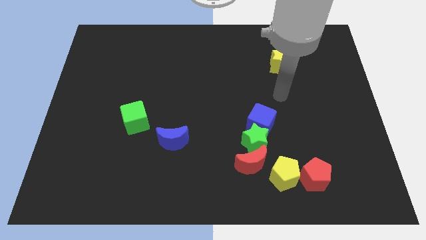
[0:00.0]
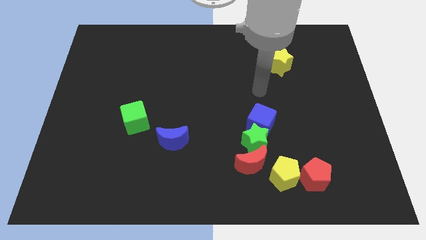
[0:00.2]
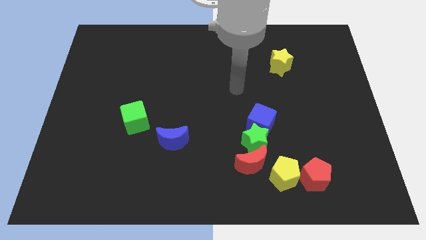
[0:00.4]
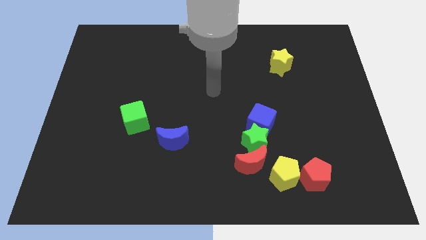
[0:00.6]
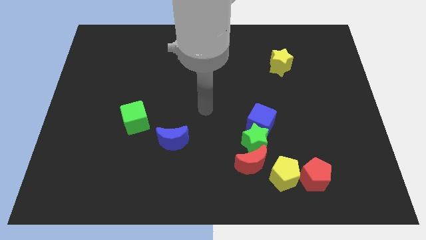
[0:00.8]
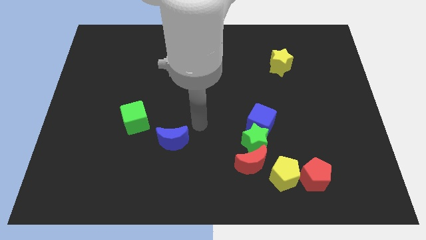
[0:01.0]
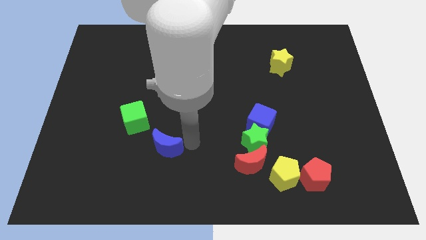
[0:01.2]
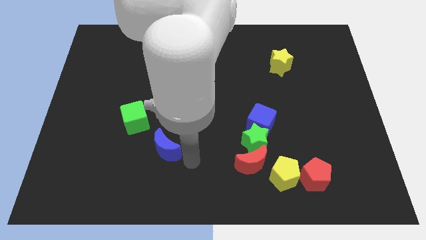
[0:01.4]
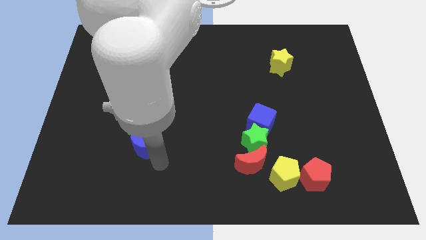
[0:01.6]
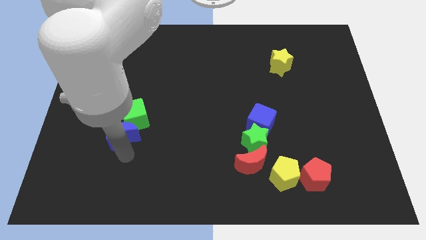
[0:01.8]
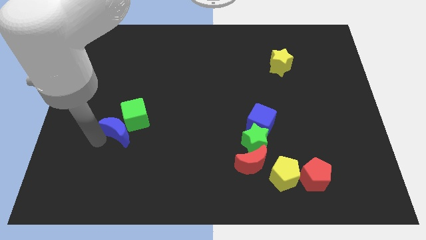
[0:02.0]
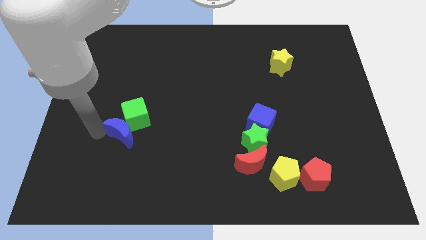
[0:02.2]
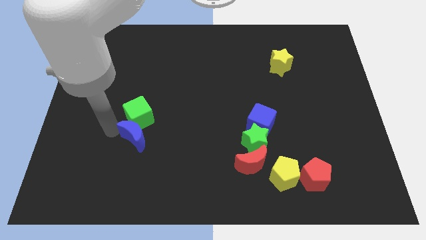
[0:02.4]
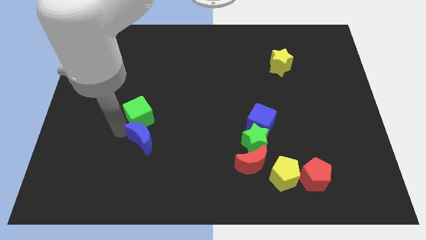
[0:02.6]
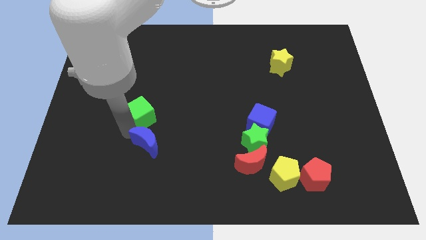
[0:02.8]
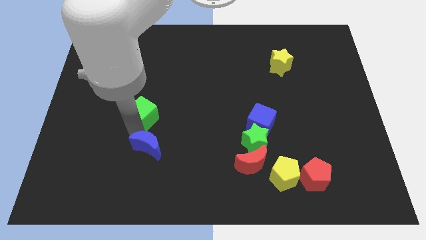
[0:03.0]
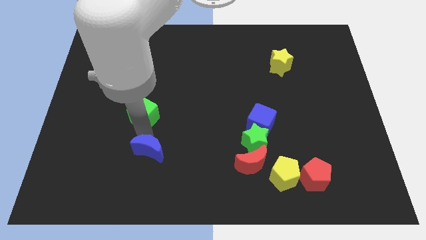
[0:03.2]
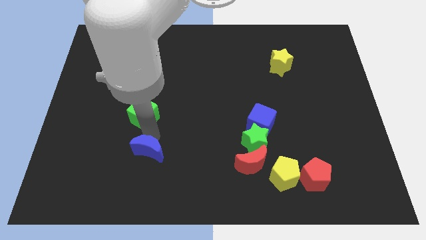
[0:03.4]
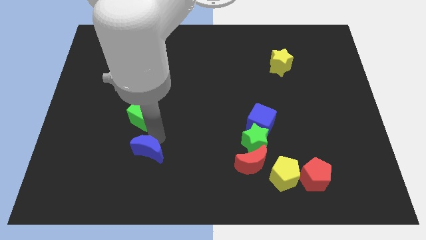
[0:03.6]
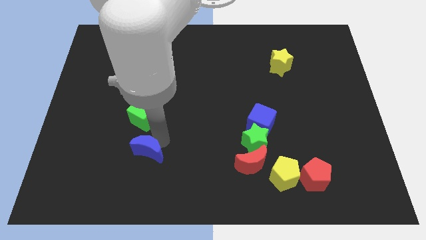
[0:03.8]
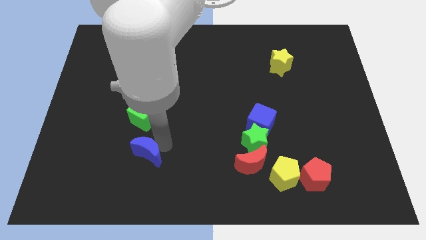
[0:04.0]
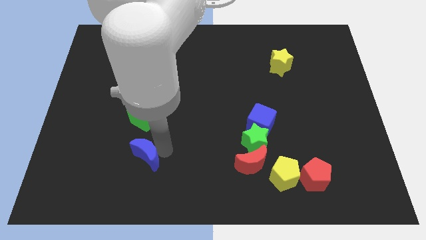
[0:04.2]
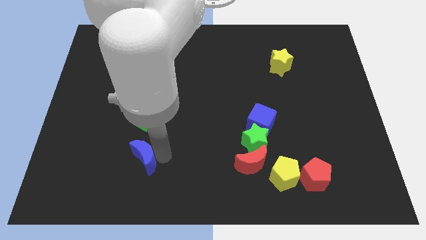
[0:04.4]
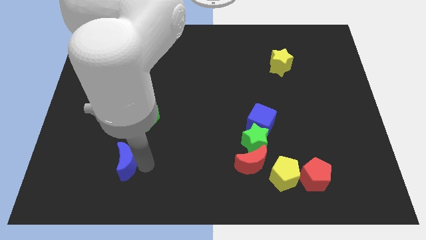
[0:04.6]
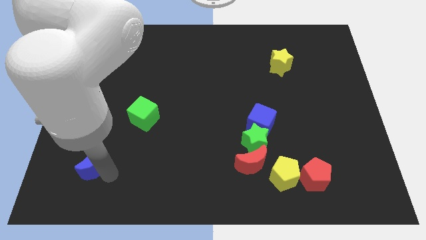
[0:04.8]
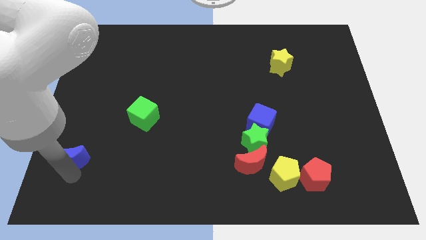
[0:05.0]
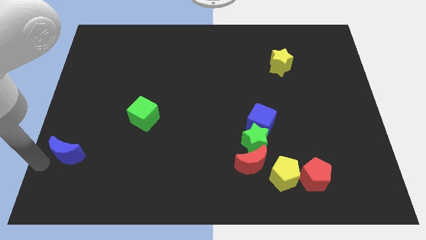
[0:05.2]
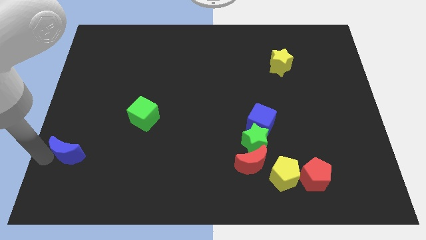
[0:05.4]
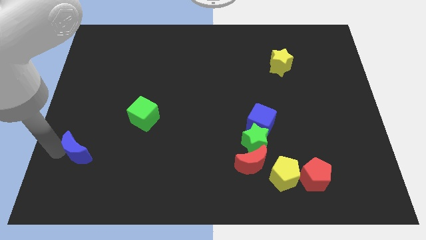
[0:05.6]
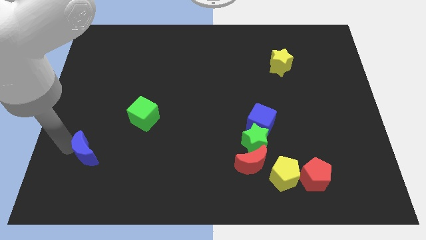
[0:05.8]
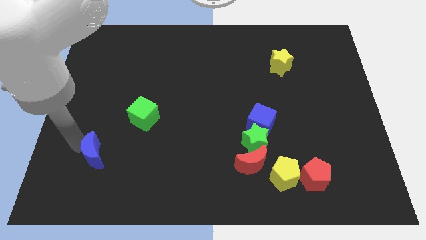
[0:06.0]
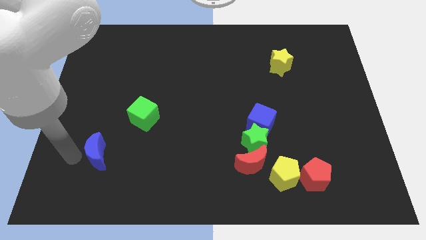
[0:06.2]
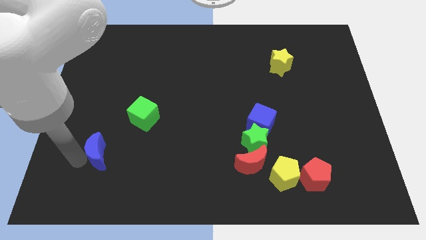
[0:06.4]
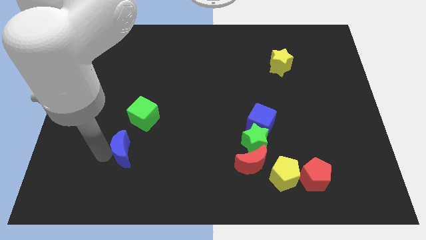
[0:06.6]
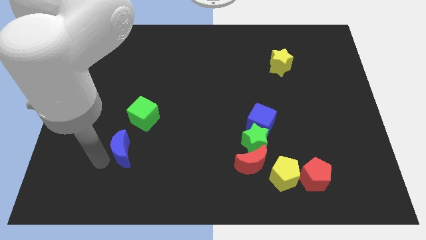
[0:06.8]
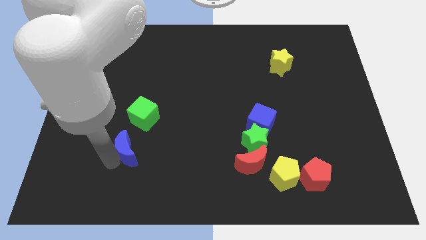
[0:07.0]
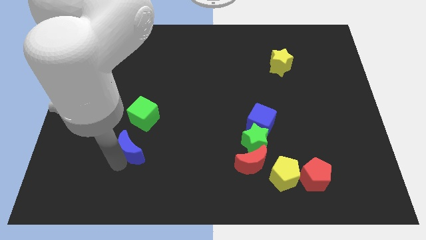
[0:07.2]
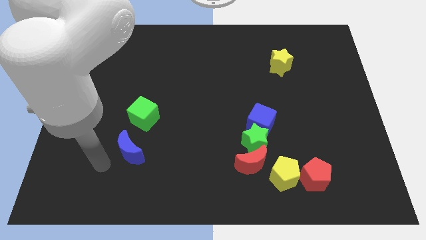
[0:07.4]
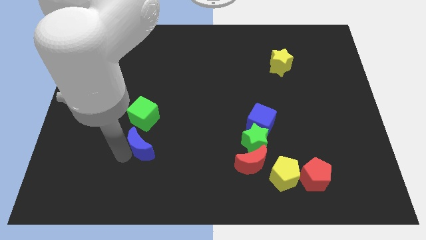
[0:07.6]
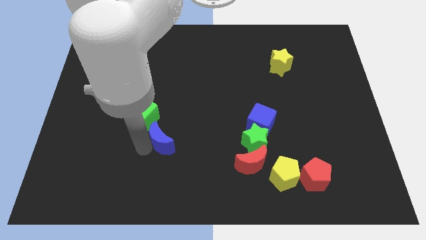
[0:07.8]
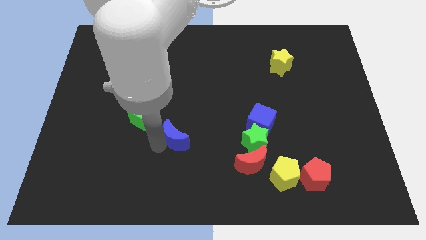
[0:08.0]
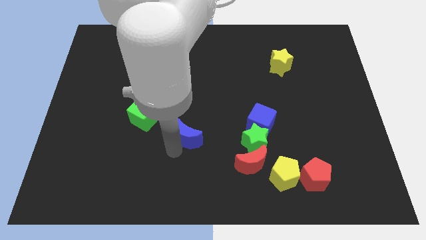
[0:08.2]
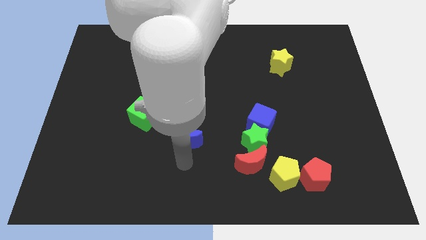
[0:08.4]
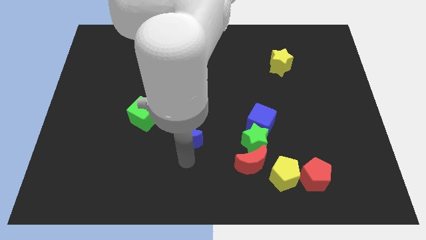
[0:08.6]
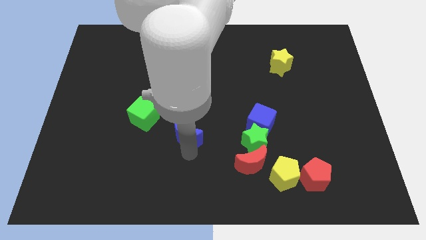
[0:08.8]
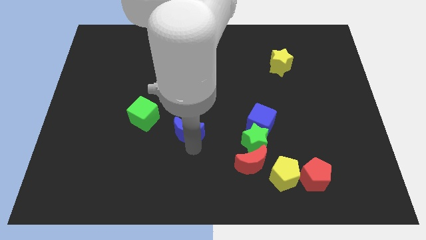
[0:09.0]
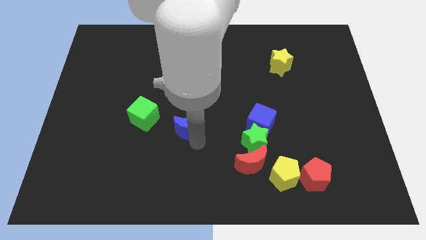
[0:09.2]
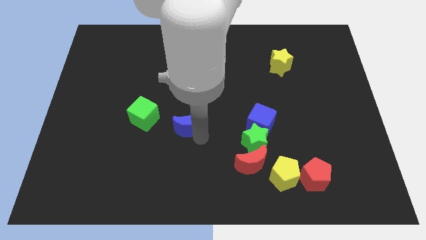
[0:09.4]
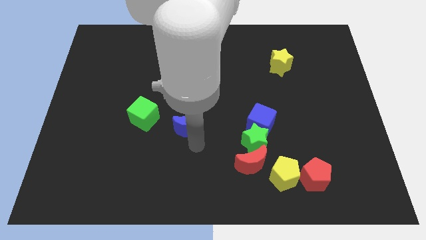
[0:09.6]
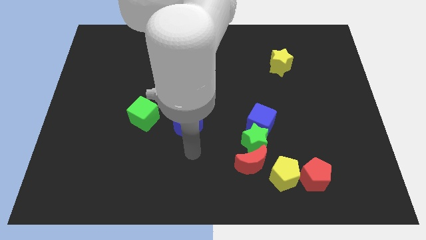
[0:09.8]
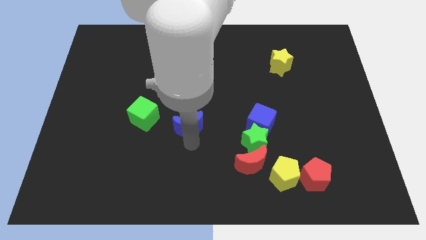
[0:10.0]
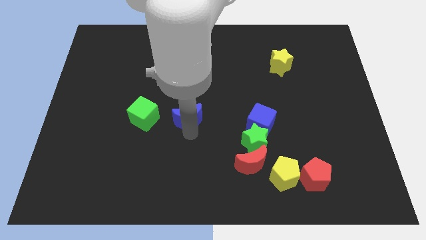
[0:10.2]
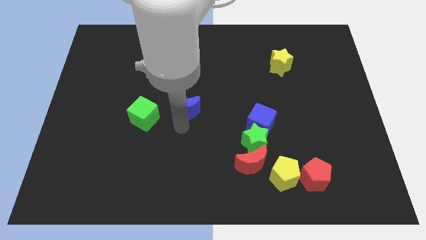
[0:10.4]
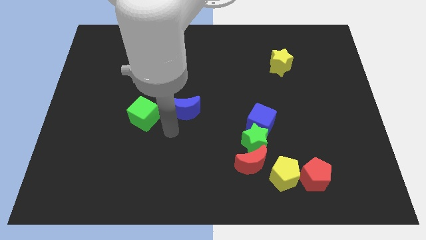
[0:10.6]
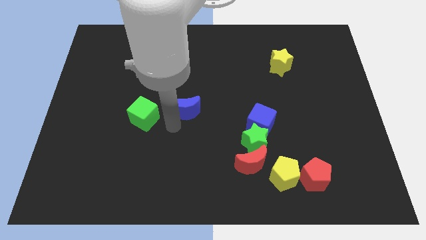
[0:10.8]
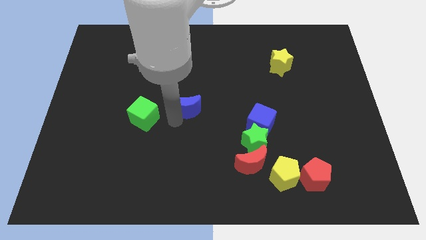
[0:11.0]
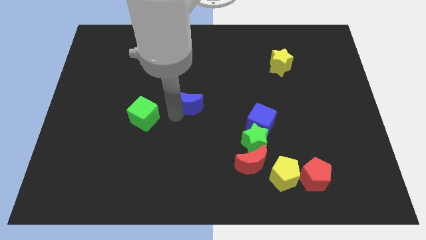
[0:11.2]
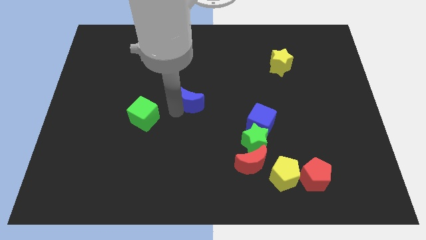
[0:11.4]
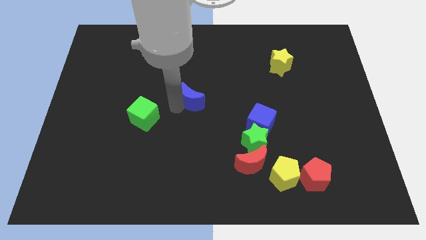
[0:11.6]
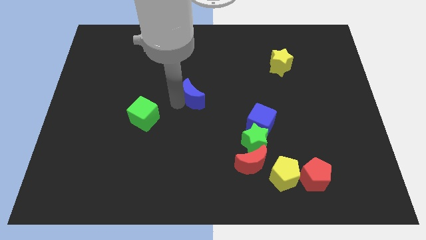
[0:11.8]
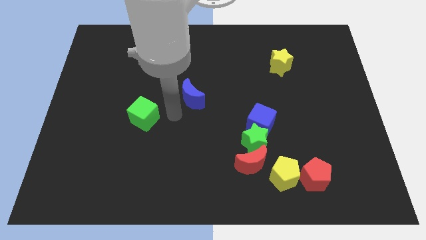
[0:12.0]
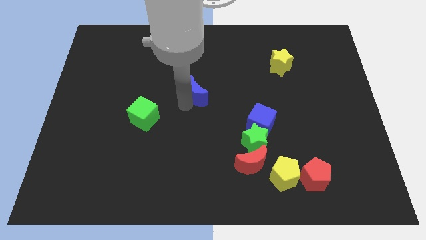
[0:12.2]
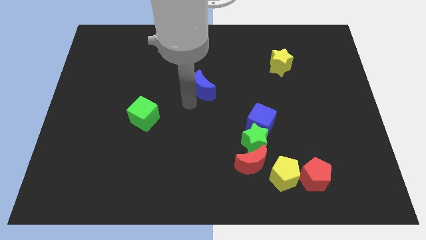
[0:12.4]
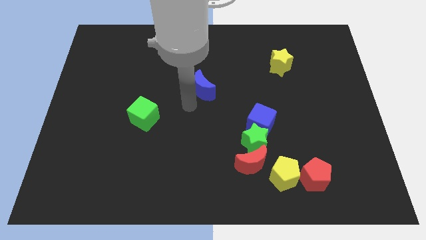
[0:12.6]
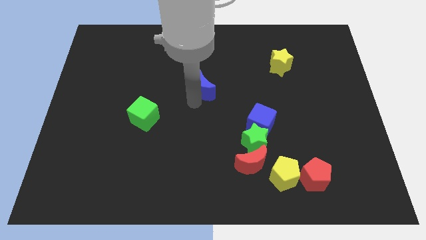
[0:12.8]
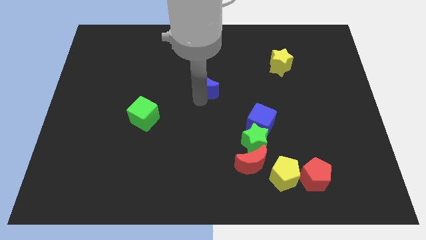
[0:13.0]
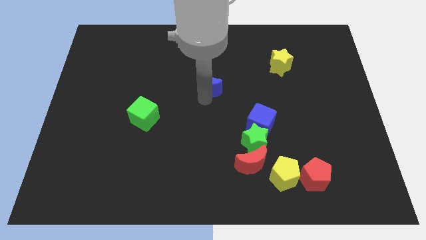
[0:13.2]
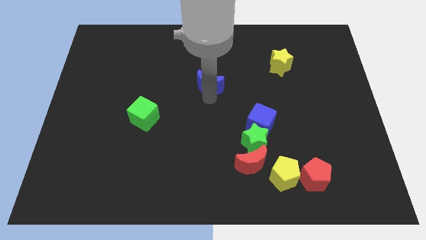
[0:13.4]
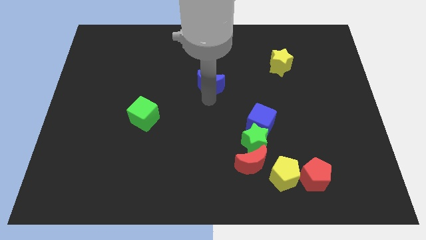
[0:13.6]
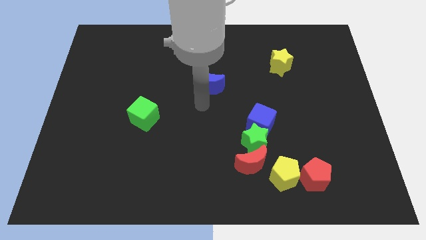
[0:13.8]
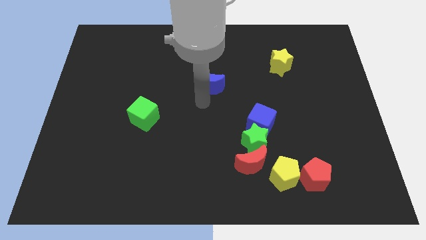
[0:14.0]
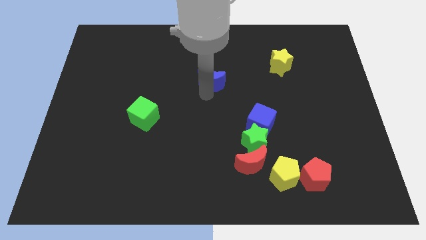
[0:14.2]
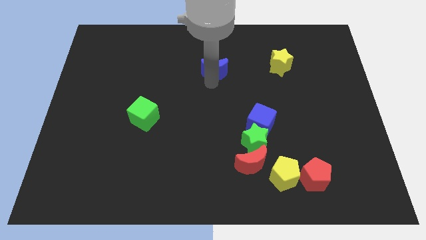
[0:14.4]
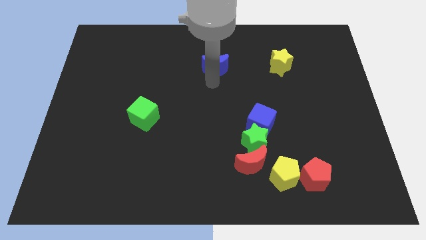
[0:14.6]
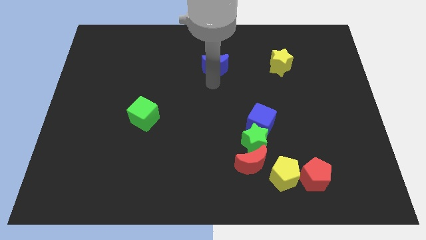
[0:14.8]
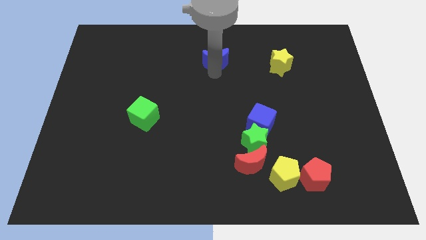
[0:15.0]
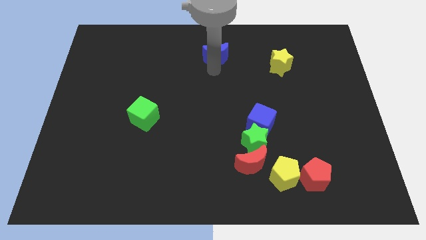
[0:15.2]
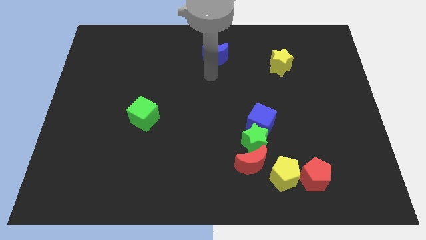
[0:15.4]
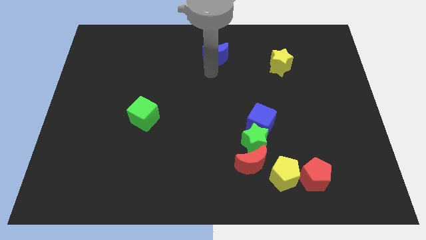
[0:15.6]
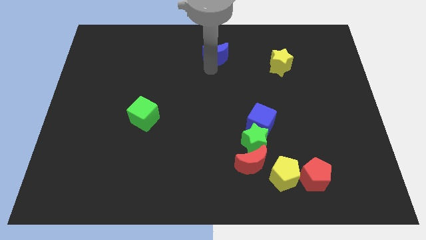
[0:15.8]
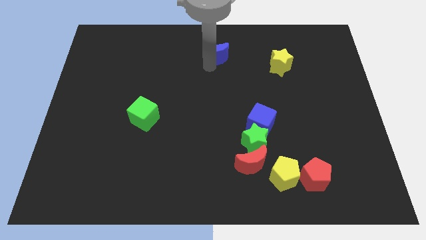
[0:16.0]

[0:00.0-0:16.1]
move the blue moon to the top
